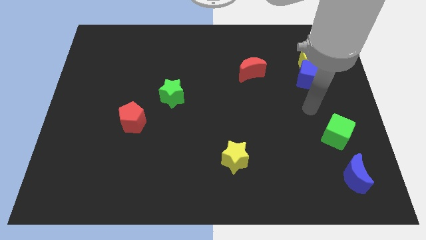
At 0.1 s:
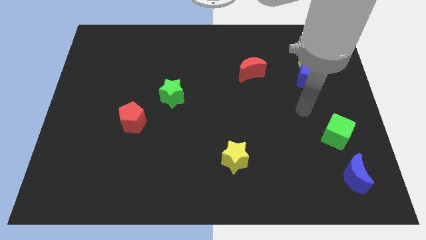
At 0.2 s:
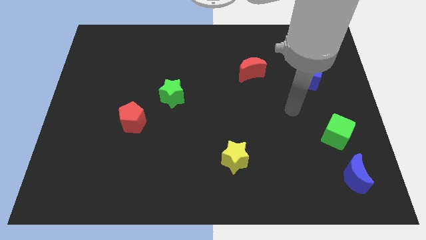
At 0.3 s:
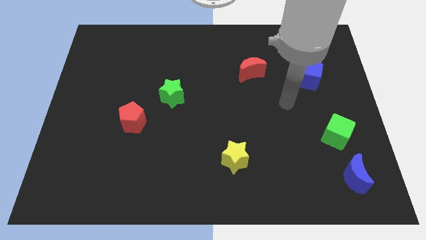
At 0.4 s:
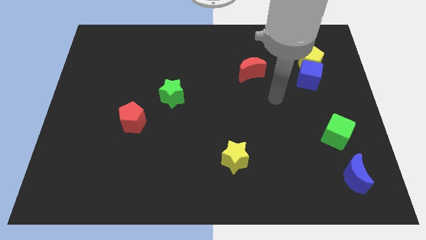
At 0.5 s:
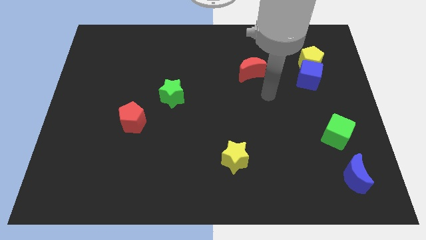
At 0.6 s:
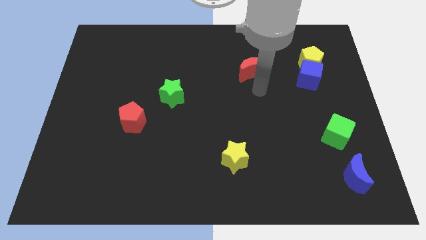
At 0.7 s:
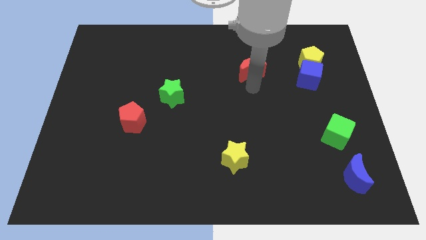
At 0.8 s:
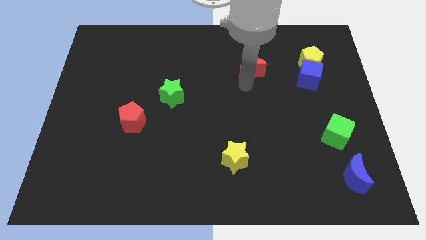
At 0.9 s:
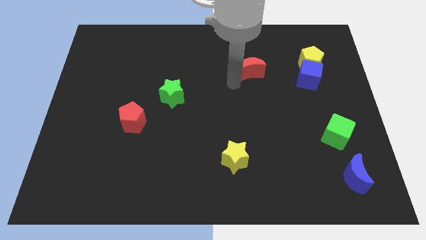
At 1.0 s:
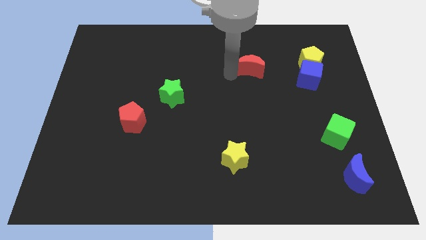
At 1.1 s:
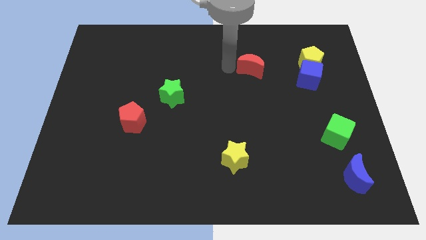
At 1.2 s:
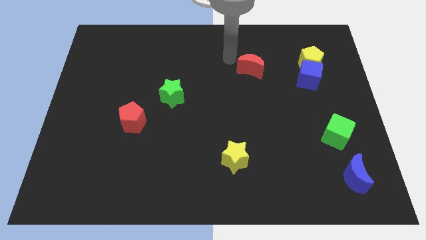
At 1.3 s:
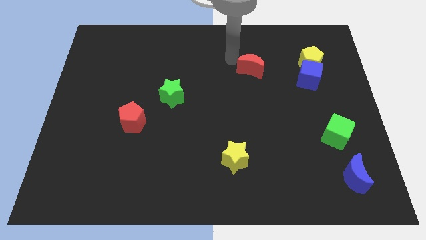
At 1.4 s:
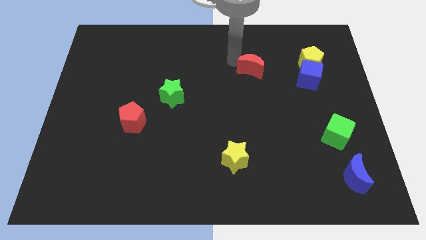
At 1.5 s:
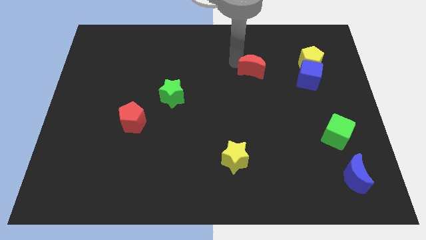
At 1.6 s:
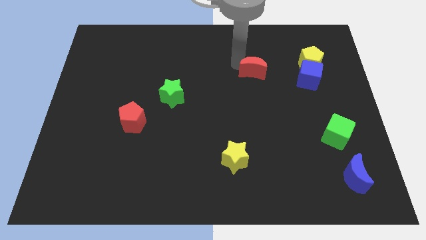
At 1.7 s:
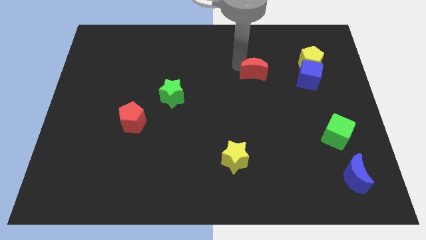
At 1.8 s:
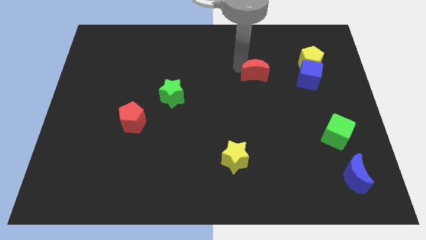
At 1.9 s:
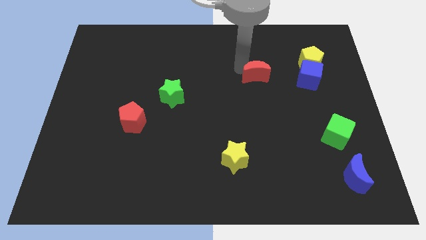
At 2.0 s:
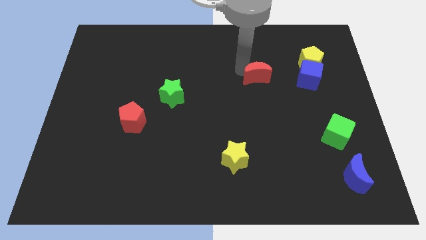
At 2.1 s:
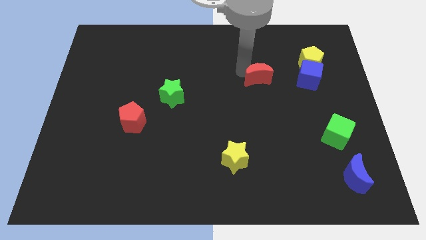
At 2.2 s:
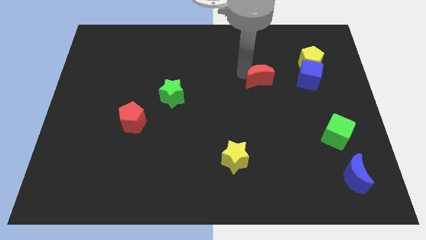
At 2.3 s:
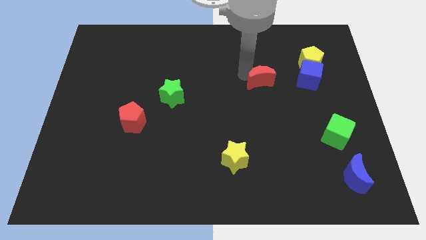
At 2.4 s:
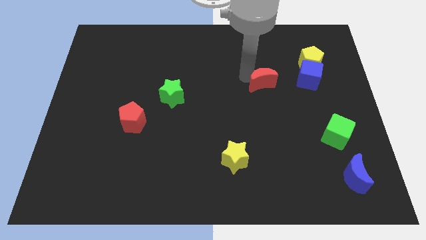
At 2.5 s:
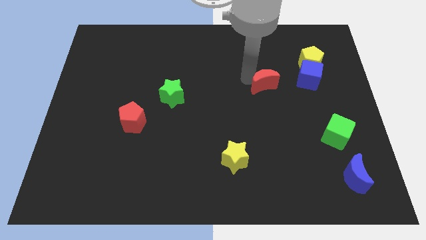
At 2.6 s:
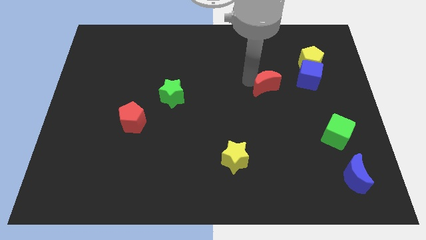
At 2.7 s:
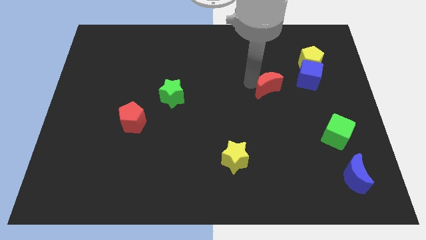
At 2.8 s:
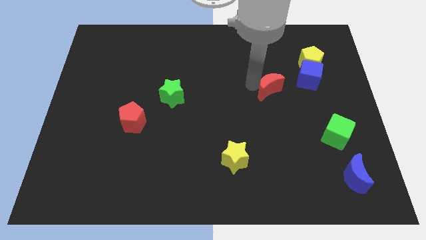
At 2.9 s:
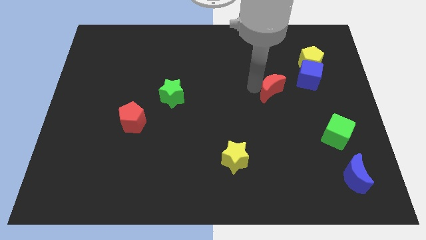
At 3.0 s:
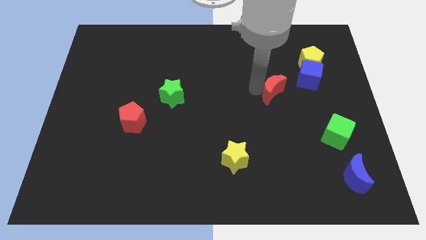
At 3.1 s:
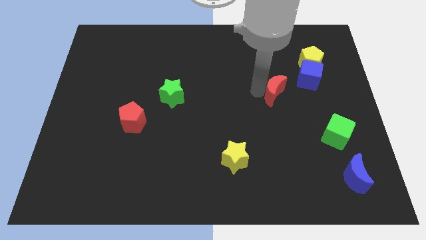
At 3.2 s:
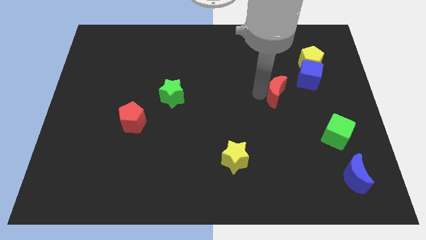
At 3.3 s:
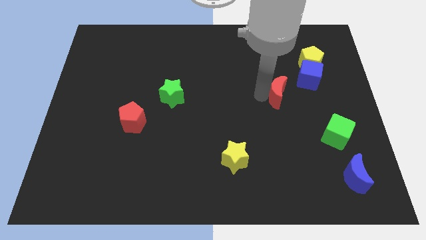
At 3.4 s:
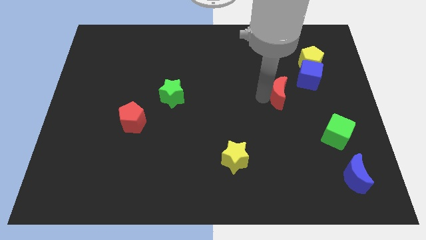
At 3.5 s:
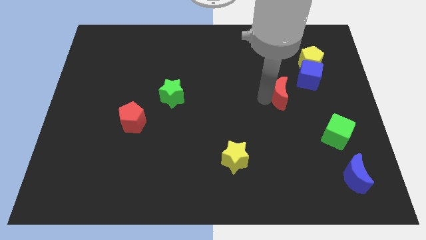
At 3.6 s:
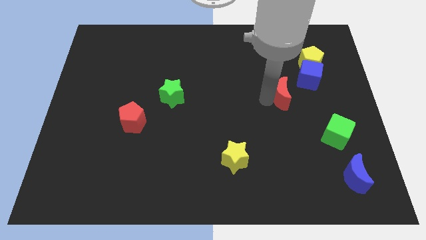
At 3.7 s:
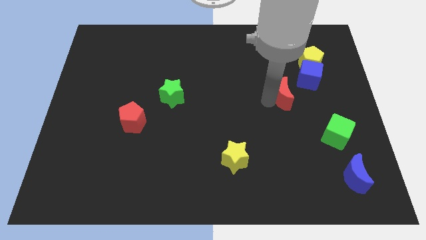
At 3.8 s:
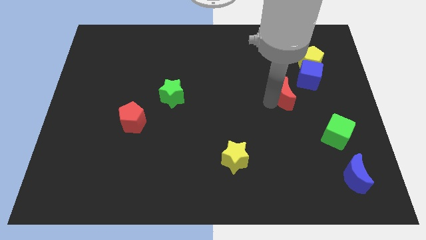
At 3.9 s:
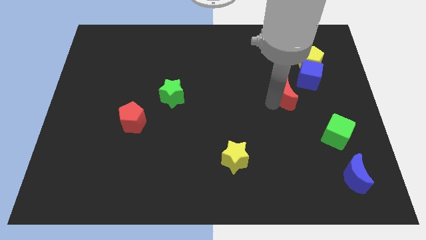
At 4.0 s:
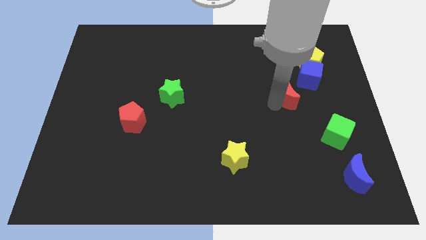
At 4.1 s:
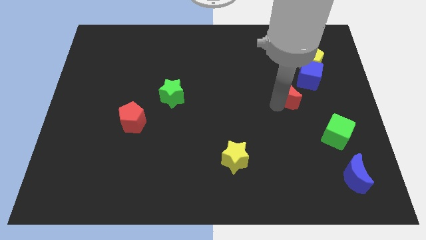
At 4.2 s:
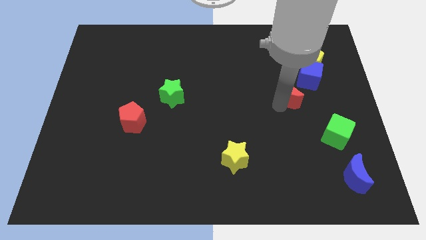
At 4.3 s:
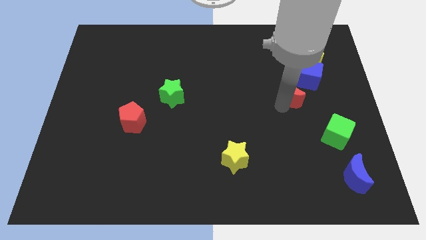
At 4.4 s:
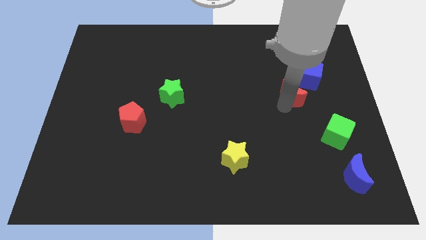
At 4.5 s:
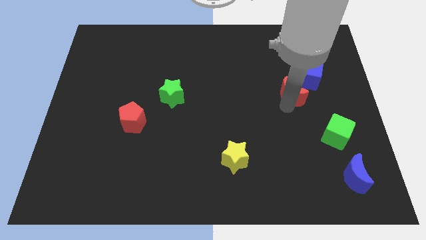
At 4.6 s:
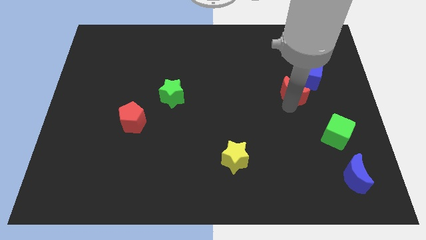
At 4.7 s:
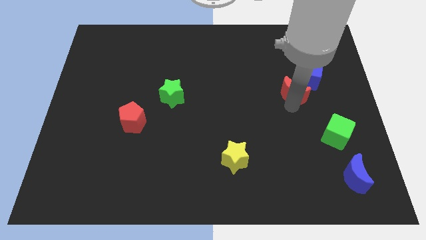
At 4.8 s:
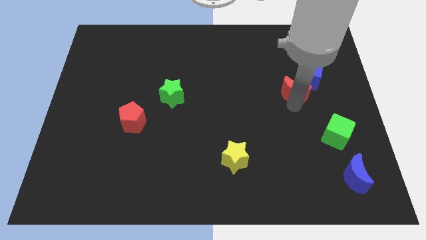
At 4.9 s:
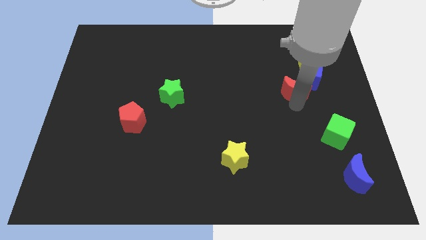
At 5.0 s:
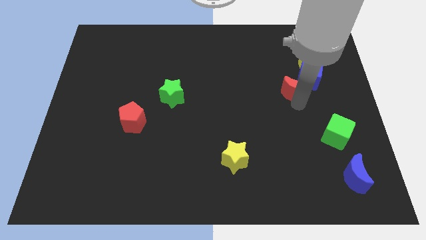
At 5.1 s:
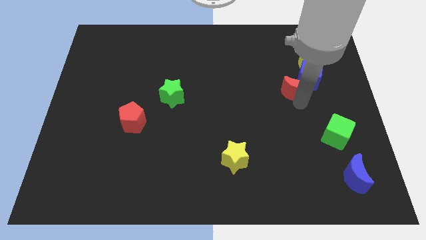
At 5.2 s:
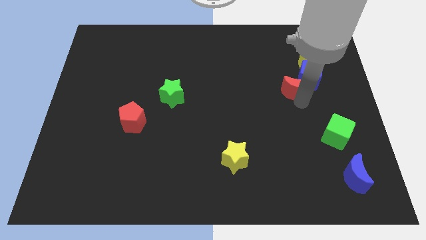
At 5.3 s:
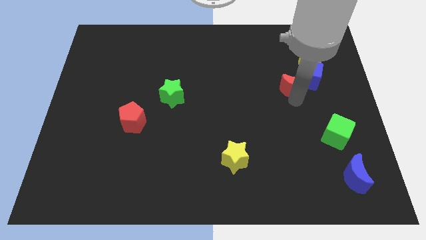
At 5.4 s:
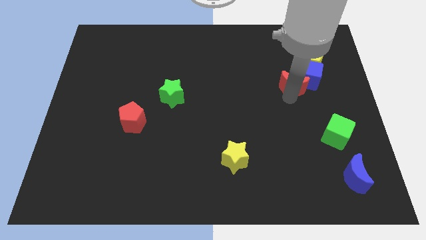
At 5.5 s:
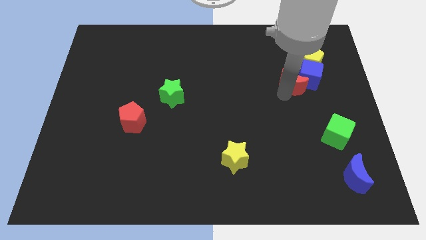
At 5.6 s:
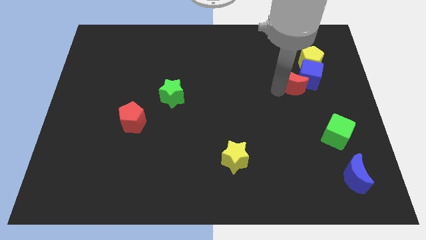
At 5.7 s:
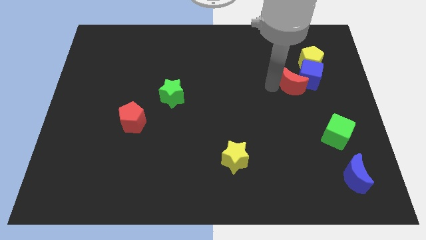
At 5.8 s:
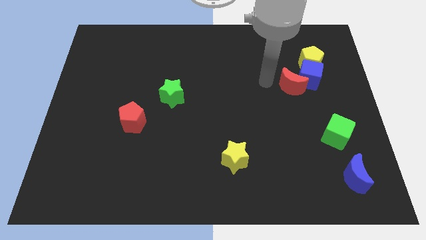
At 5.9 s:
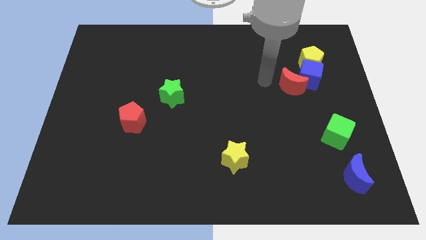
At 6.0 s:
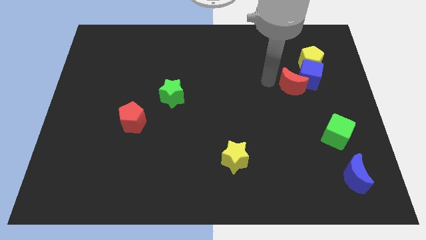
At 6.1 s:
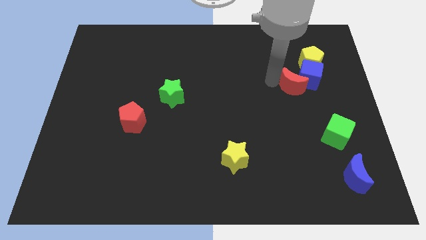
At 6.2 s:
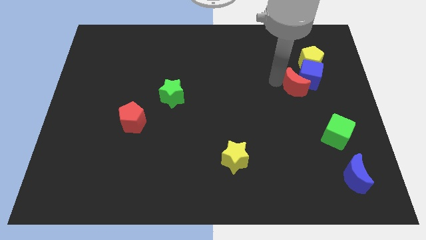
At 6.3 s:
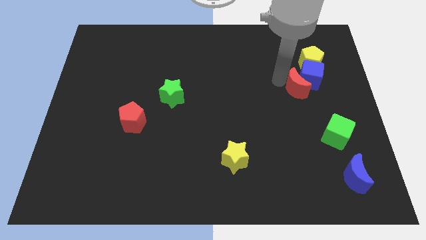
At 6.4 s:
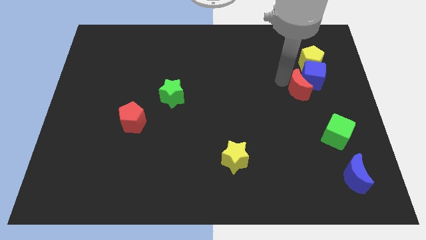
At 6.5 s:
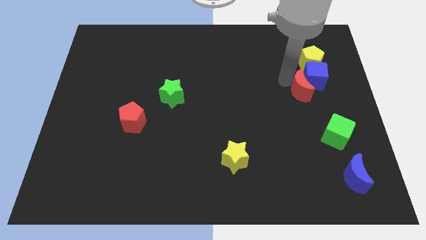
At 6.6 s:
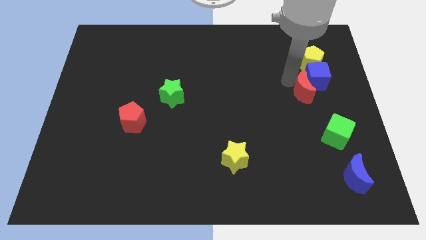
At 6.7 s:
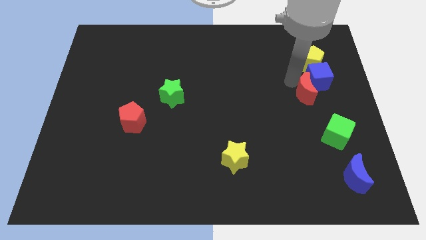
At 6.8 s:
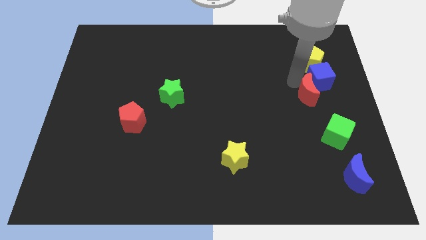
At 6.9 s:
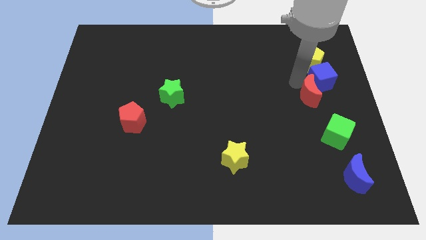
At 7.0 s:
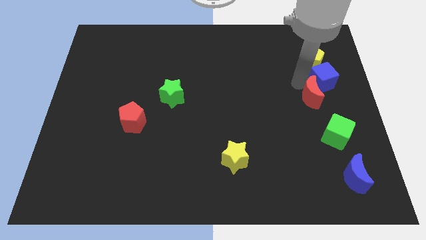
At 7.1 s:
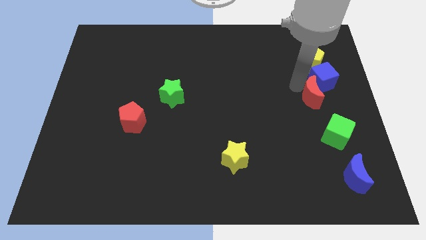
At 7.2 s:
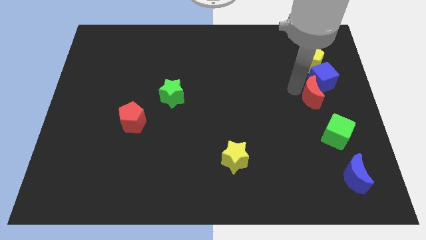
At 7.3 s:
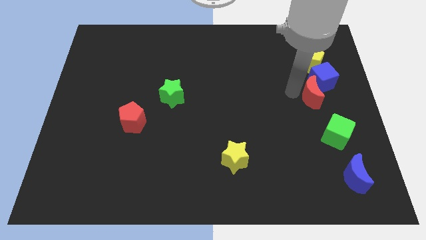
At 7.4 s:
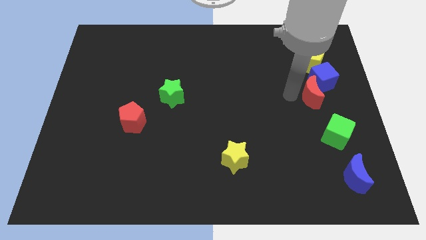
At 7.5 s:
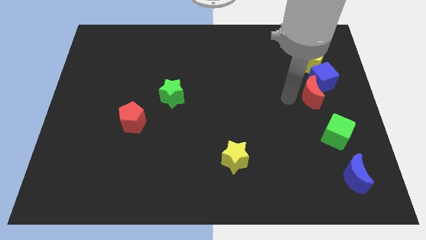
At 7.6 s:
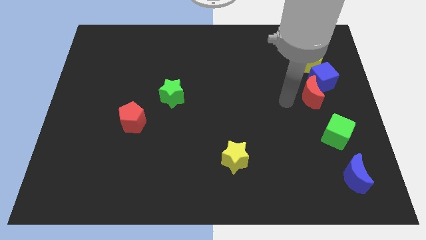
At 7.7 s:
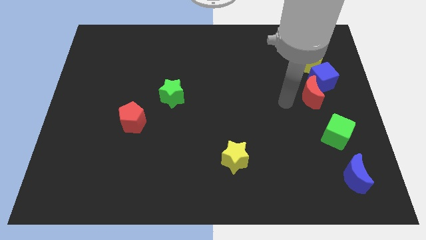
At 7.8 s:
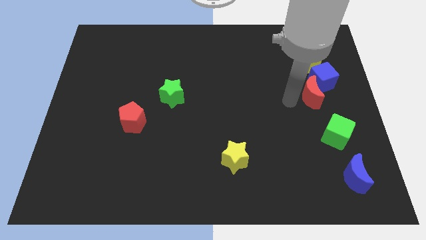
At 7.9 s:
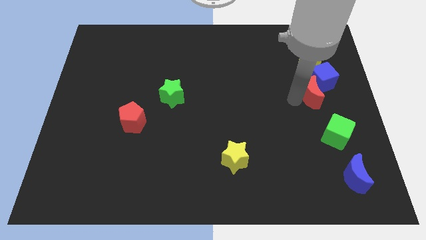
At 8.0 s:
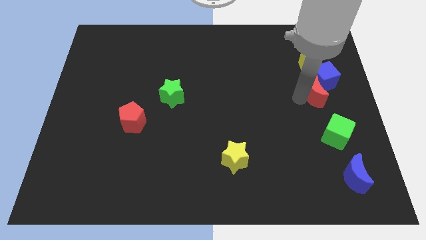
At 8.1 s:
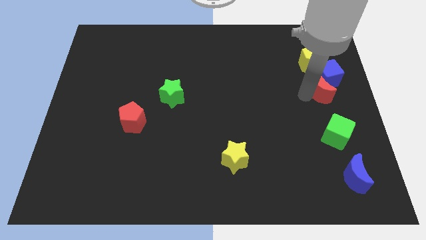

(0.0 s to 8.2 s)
push the red moon to the right side of the board
